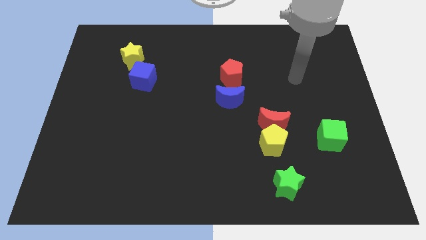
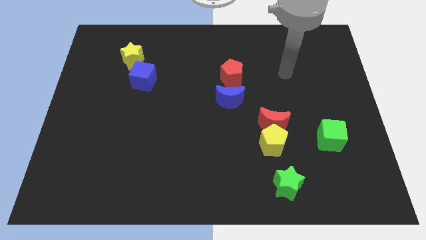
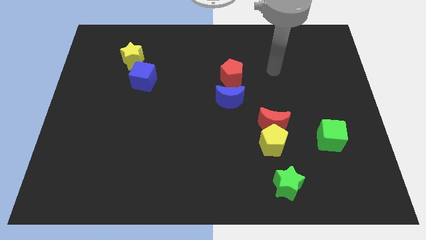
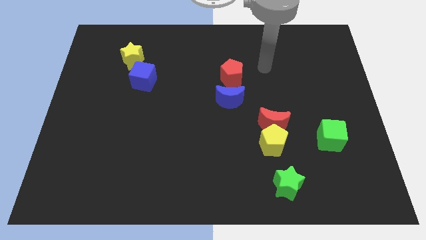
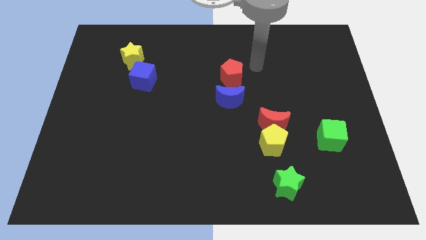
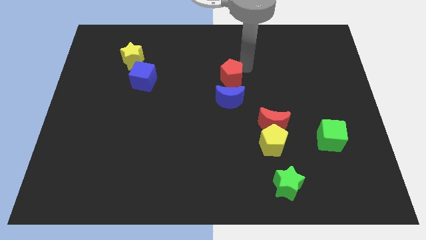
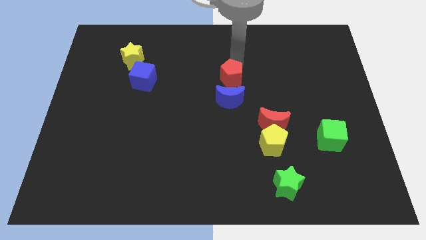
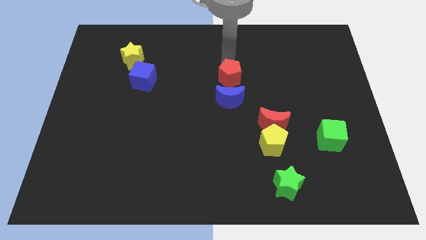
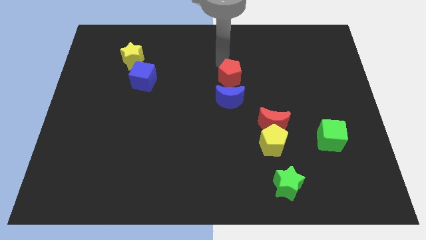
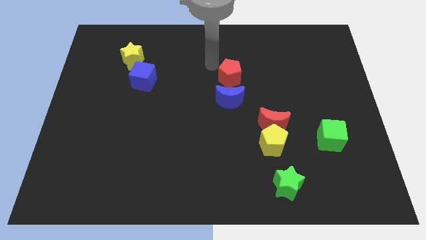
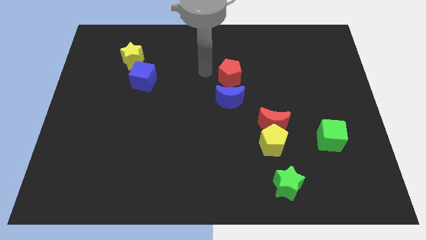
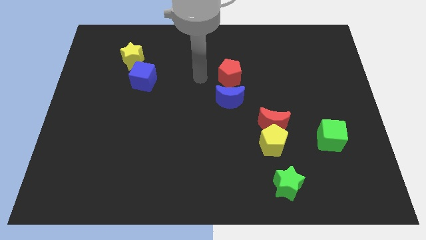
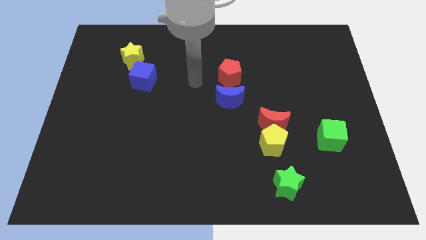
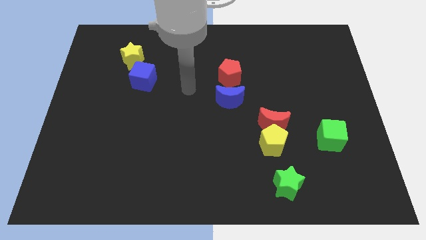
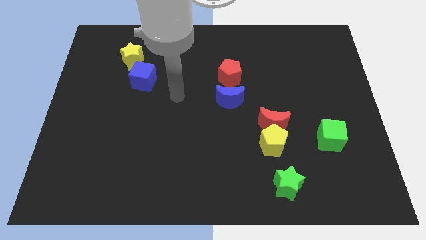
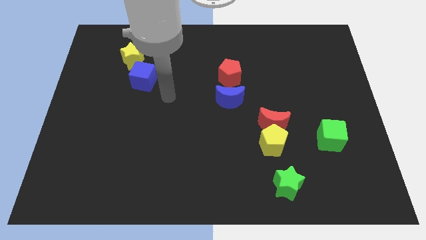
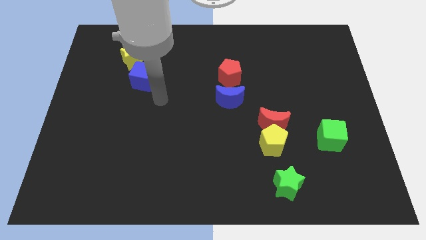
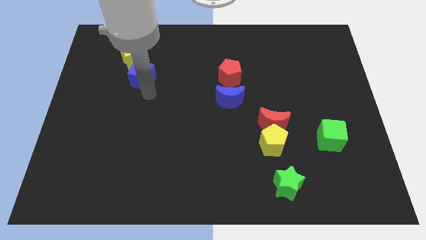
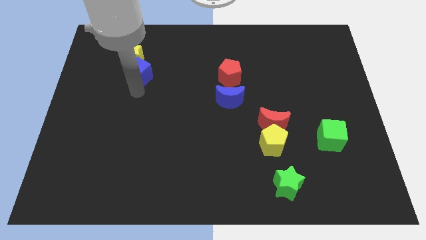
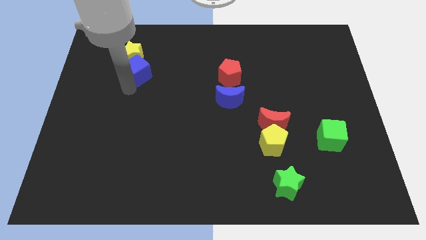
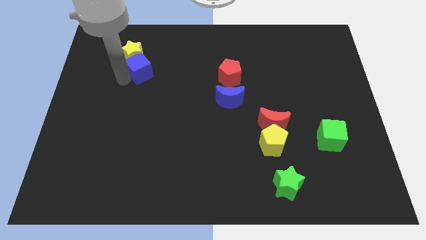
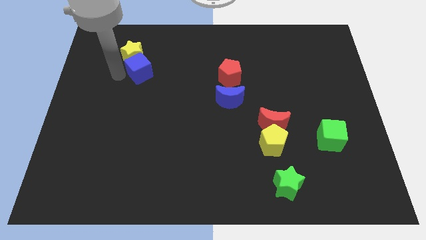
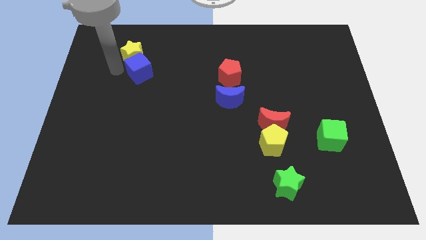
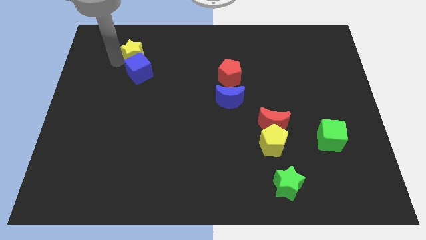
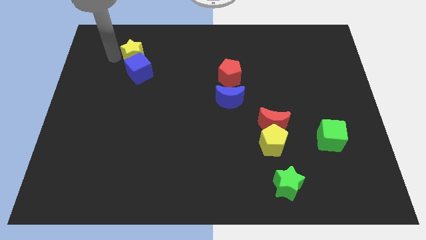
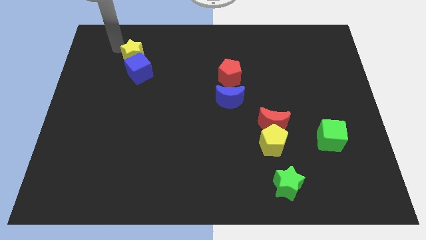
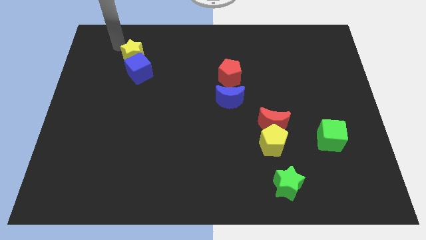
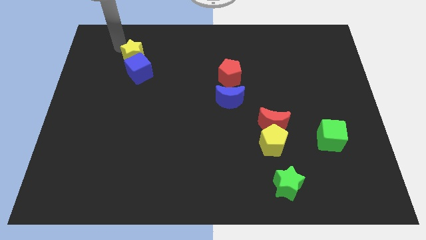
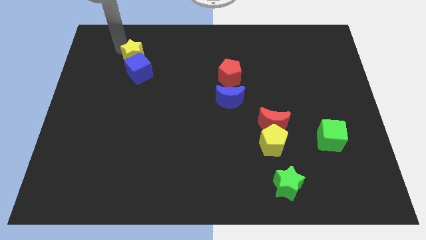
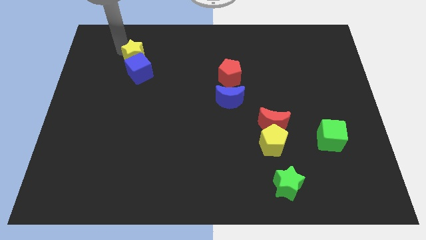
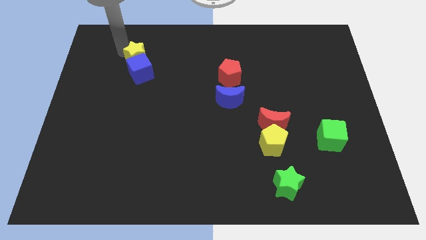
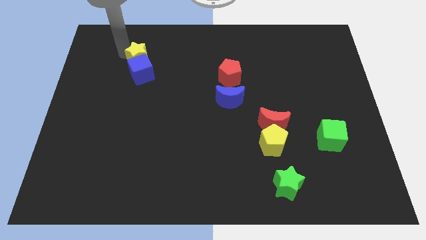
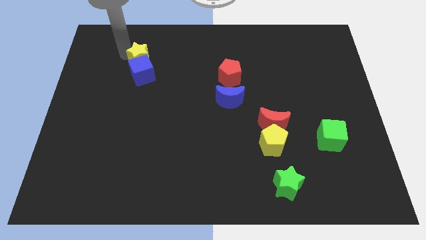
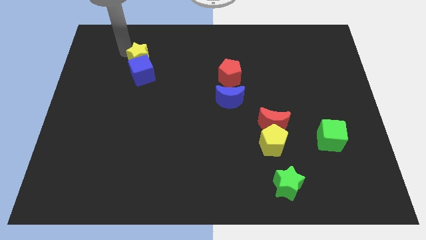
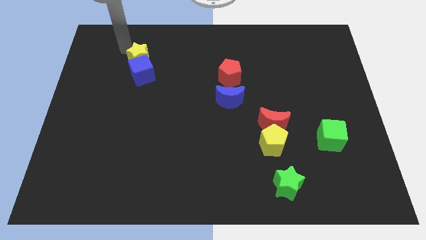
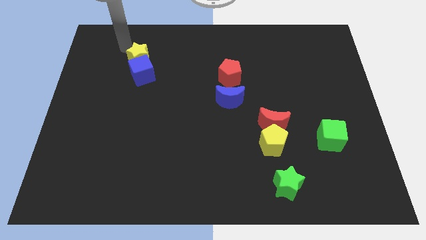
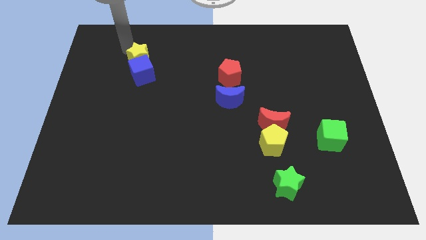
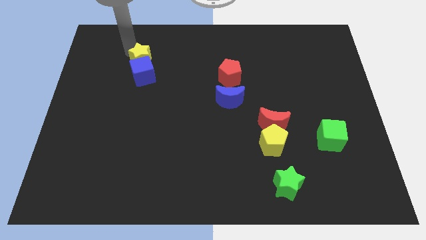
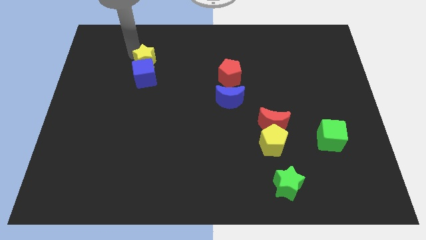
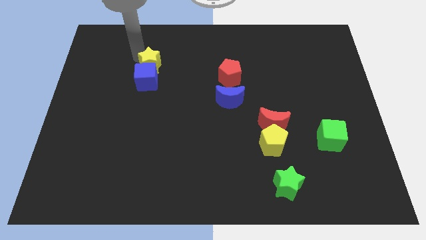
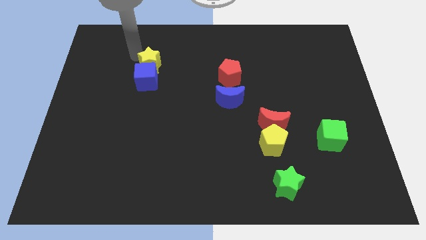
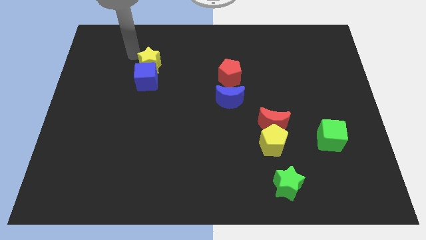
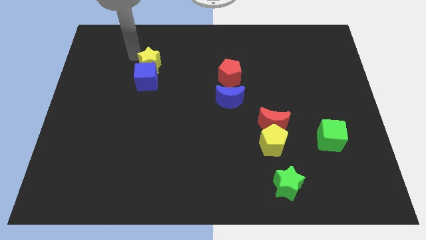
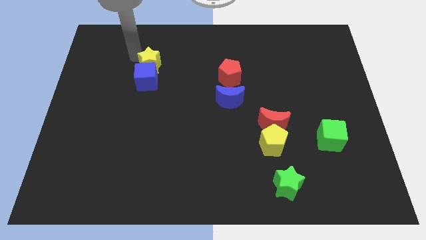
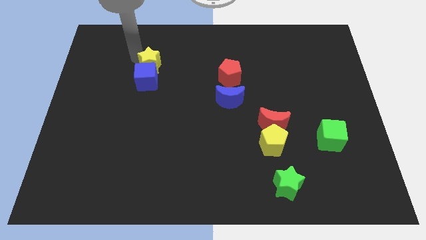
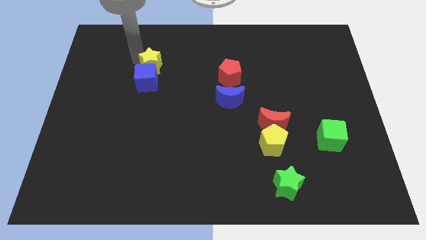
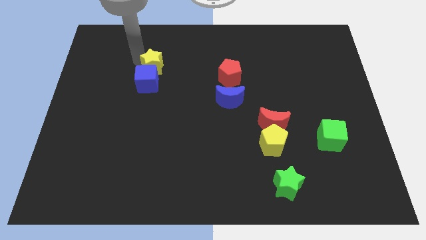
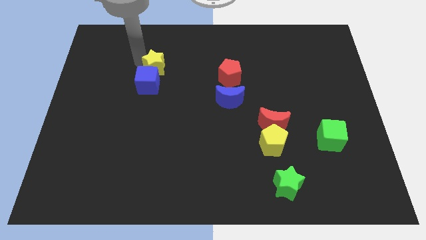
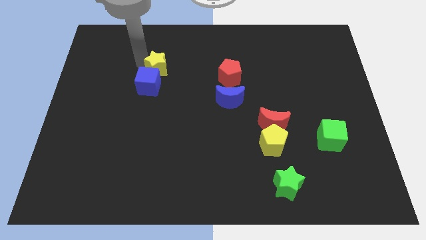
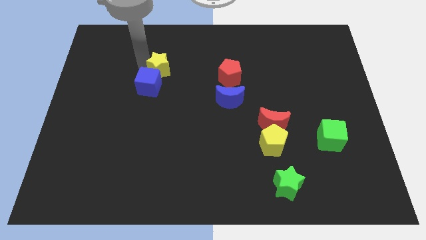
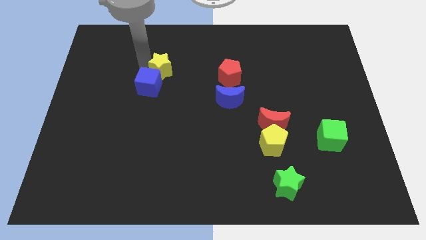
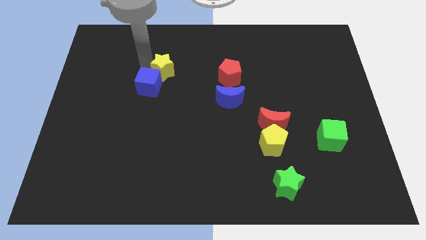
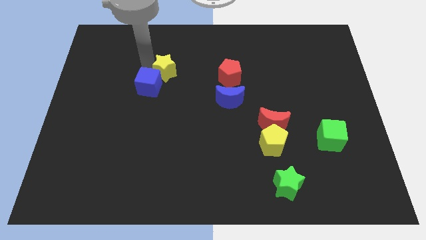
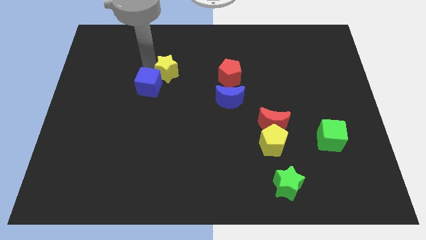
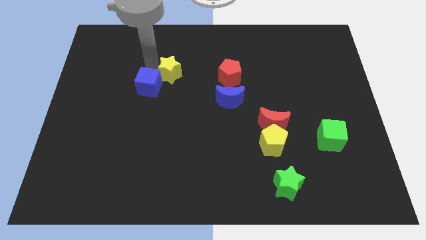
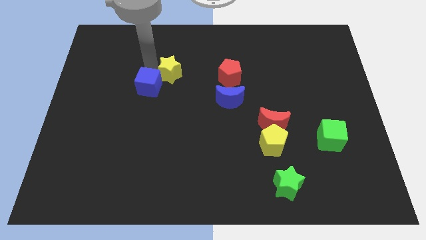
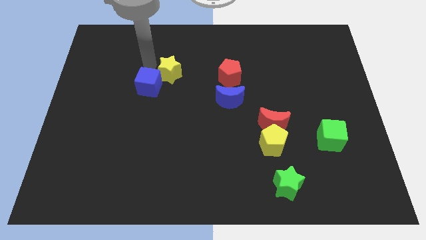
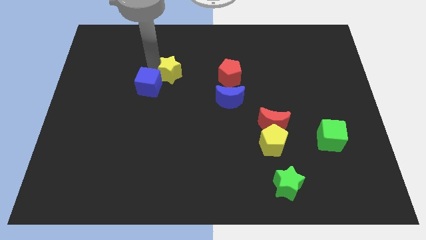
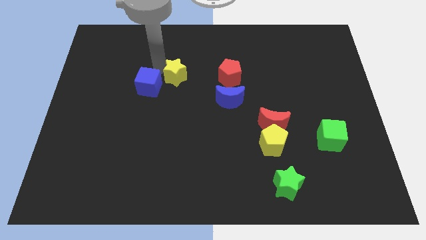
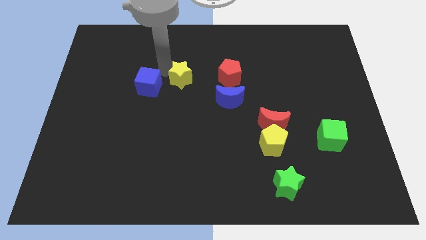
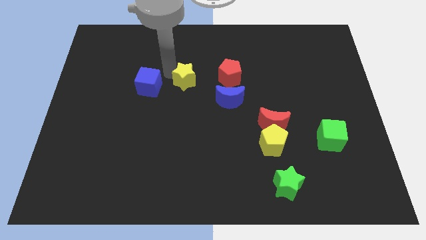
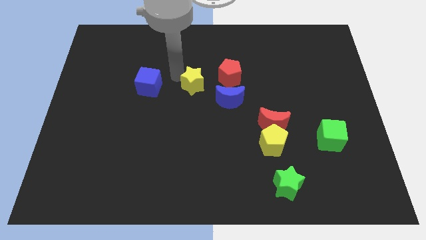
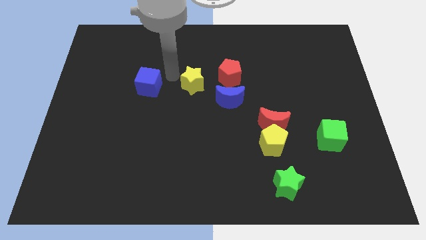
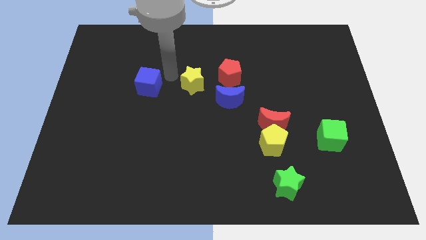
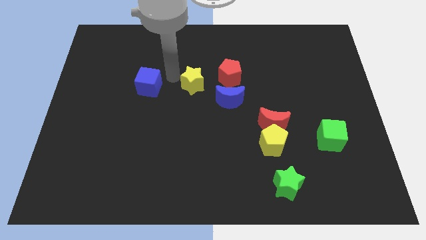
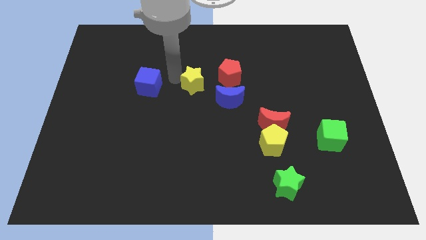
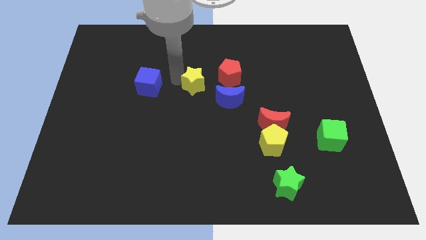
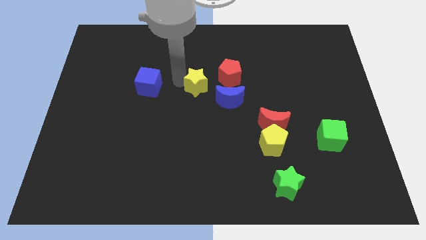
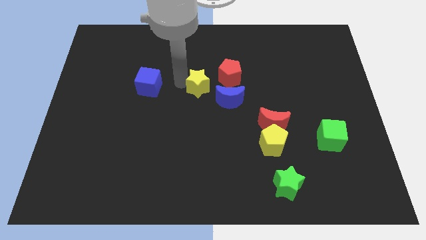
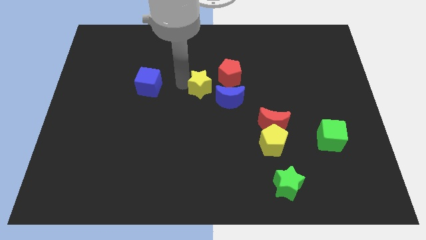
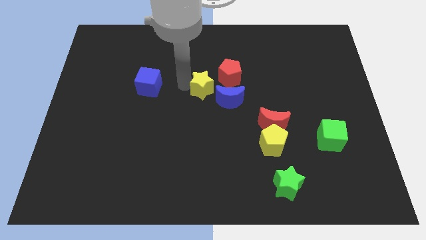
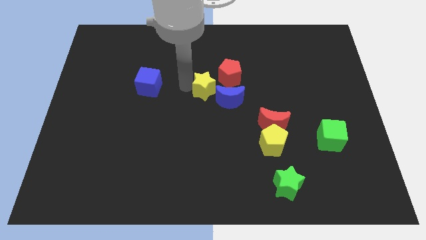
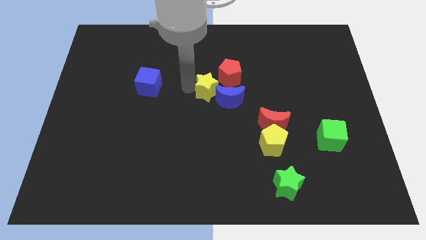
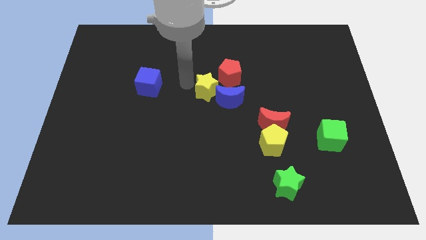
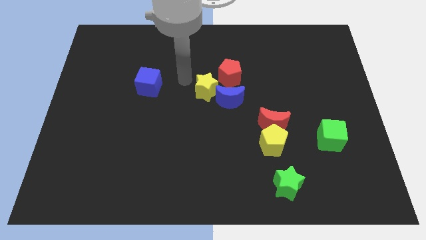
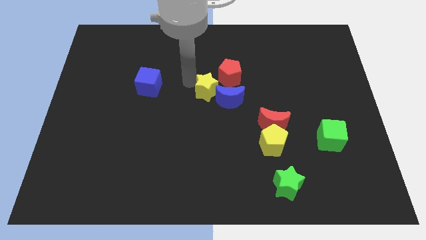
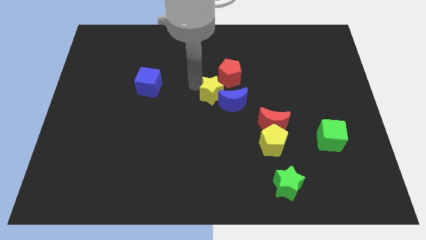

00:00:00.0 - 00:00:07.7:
put the yellow star next to the blue moon

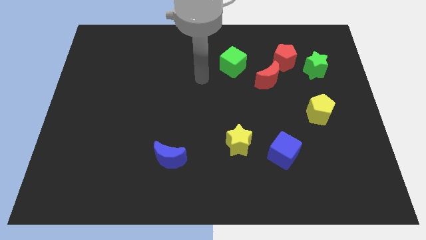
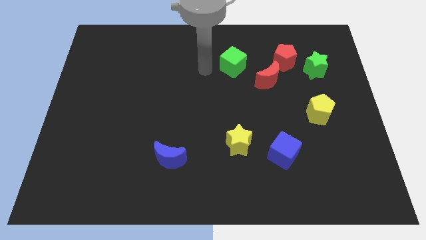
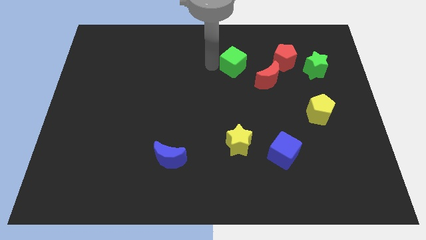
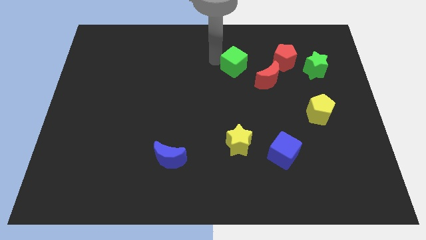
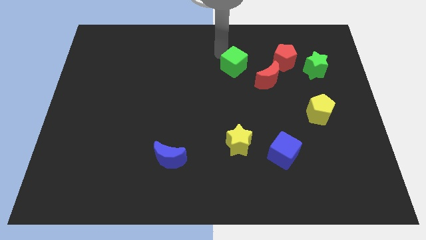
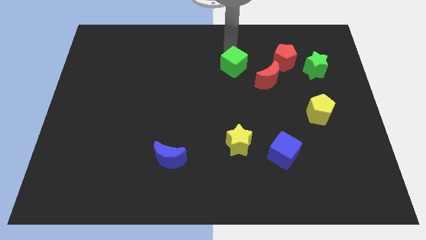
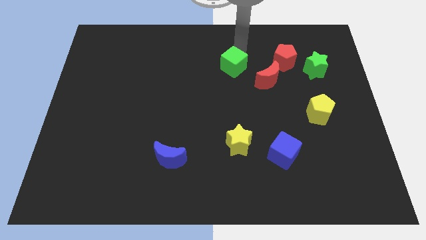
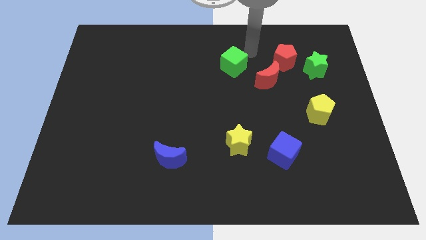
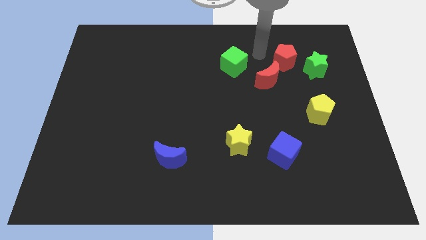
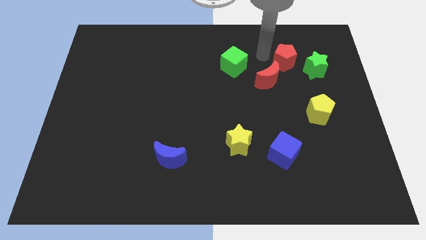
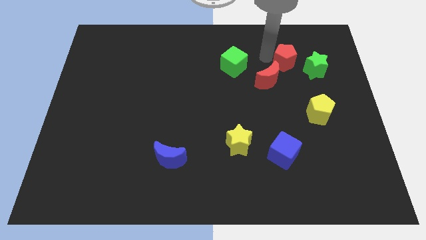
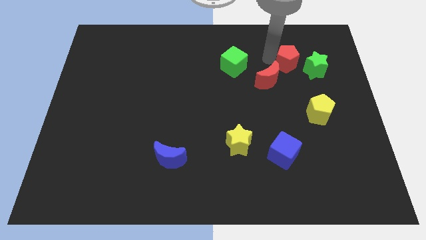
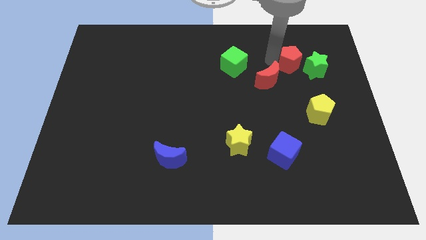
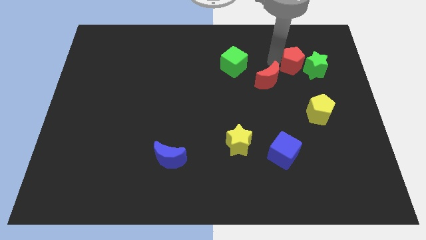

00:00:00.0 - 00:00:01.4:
put the red pentagon towards the green star
